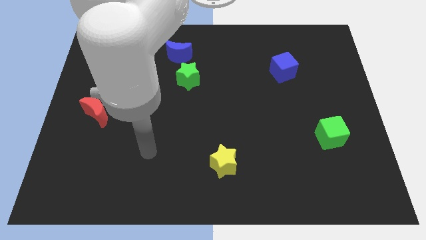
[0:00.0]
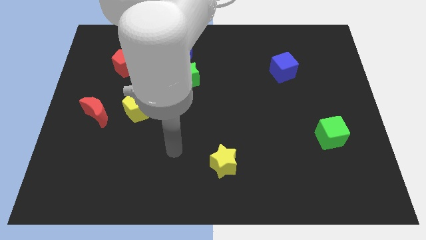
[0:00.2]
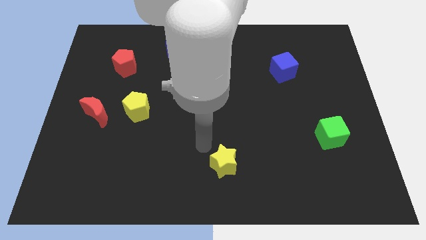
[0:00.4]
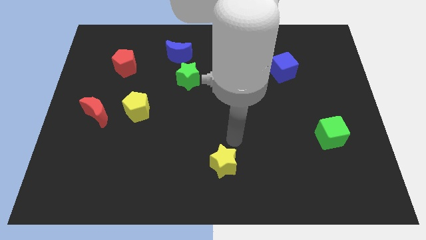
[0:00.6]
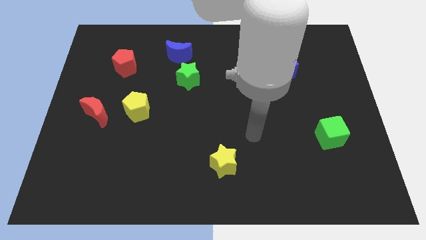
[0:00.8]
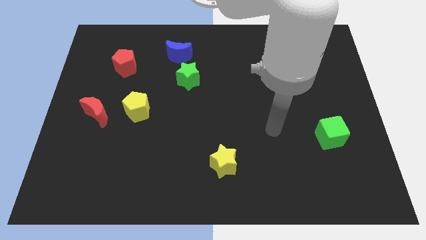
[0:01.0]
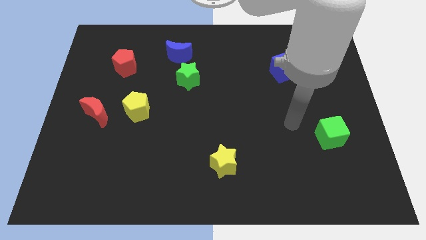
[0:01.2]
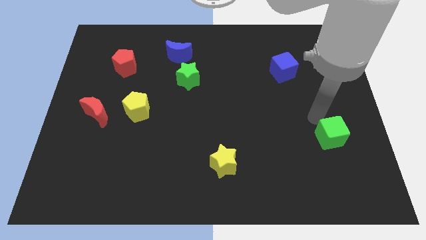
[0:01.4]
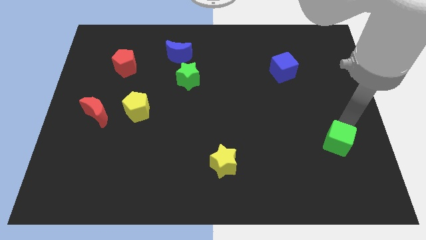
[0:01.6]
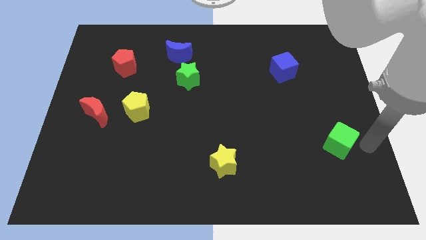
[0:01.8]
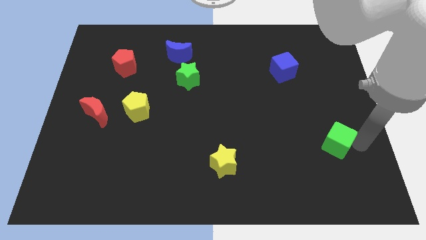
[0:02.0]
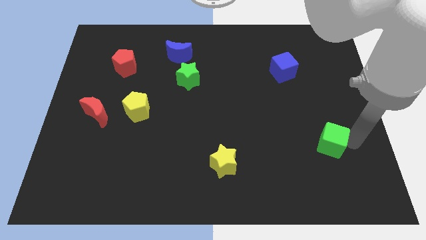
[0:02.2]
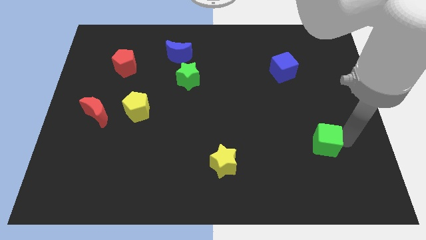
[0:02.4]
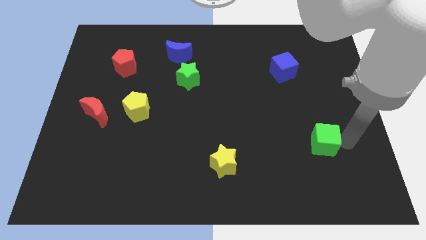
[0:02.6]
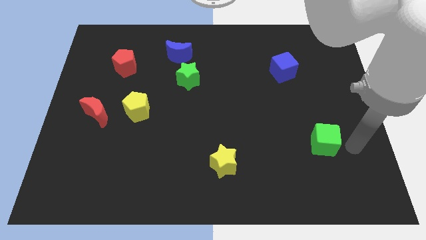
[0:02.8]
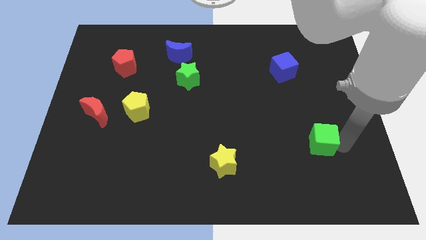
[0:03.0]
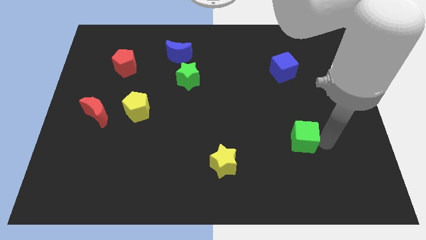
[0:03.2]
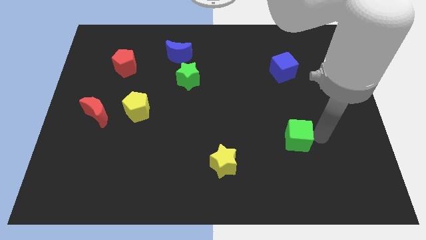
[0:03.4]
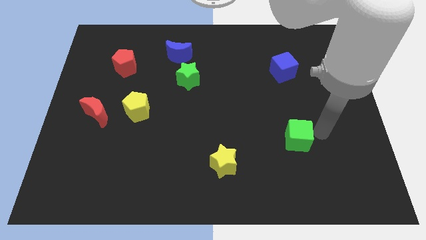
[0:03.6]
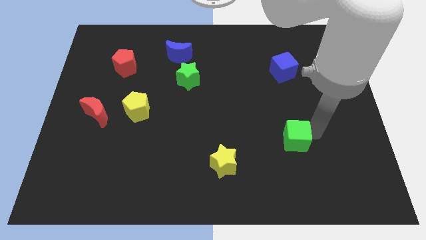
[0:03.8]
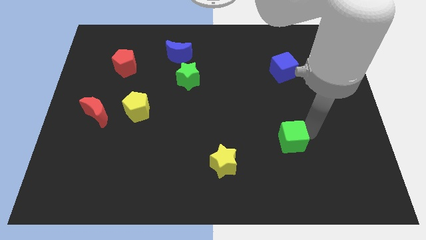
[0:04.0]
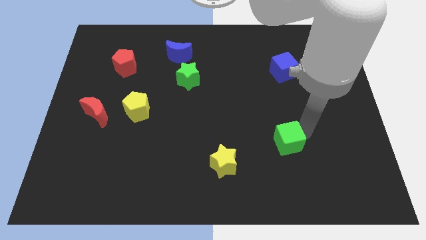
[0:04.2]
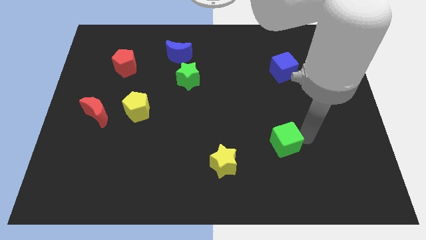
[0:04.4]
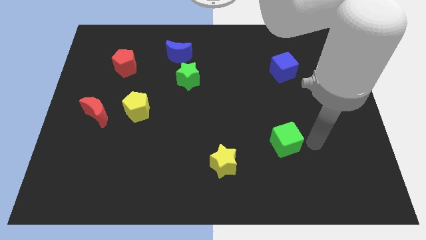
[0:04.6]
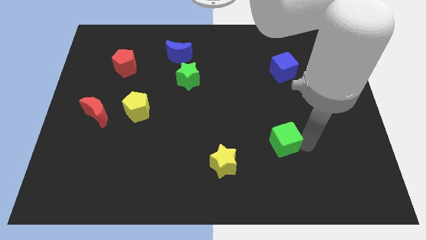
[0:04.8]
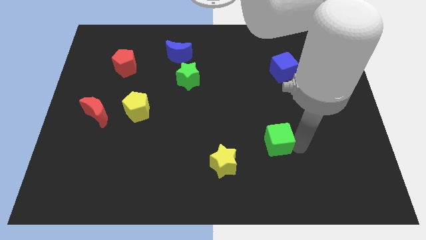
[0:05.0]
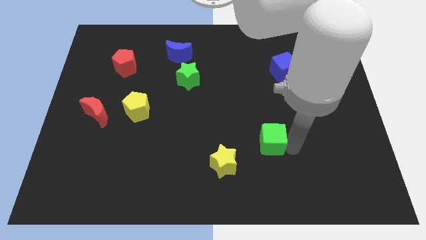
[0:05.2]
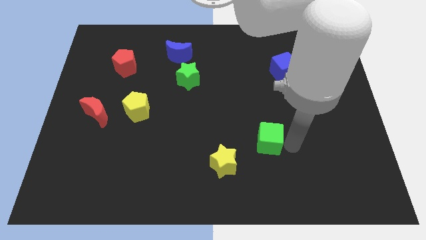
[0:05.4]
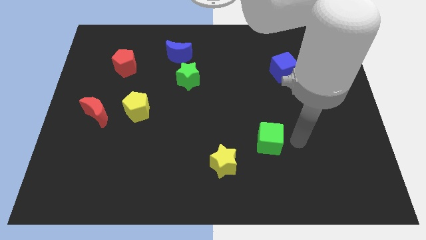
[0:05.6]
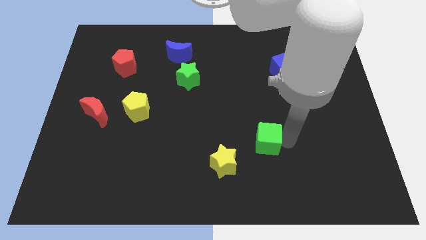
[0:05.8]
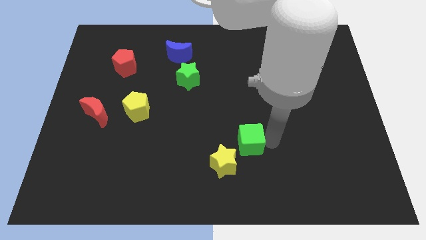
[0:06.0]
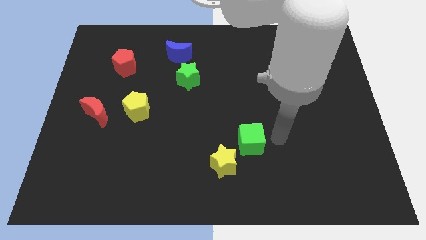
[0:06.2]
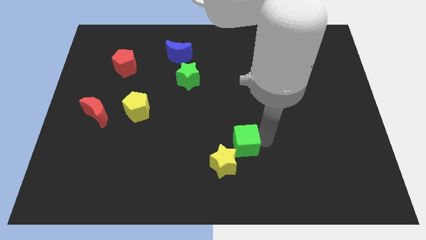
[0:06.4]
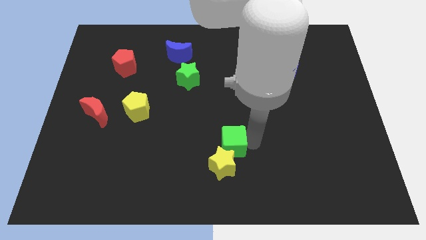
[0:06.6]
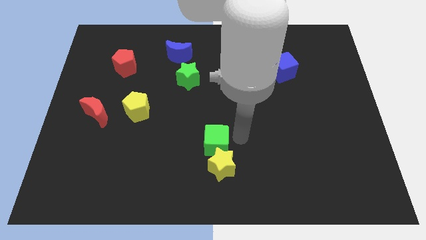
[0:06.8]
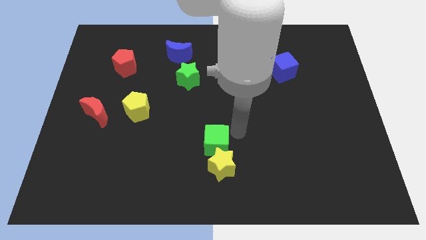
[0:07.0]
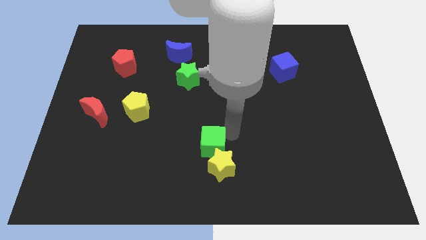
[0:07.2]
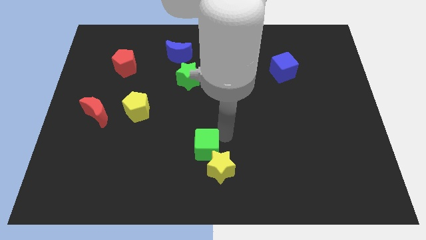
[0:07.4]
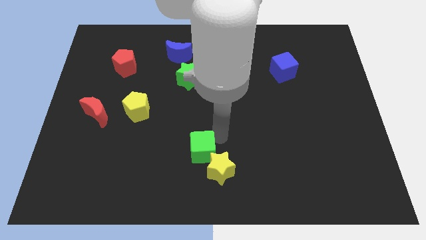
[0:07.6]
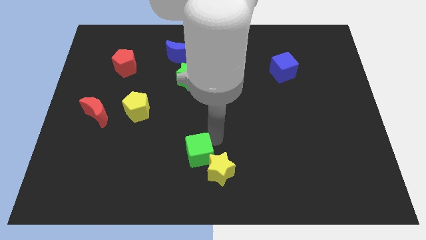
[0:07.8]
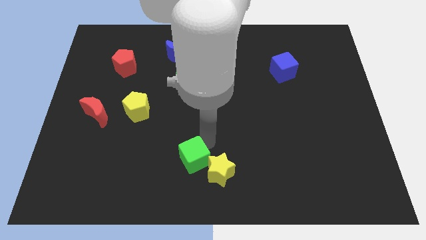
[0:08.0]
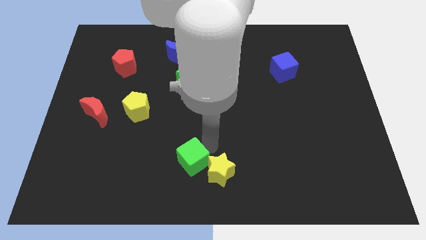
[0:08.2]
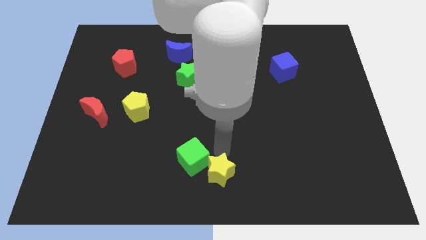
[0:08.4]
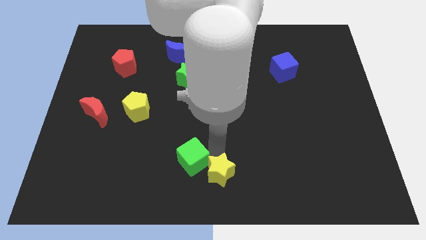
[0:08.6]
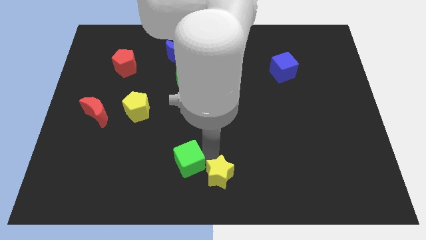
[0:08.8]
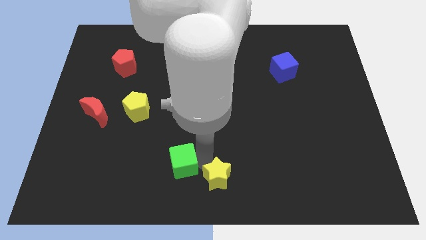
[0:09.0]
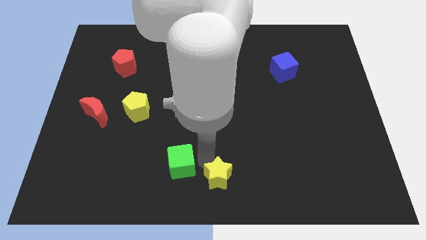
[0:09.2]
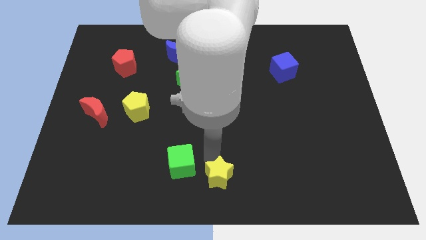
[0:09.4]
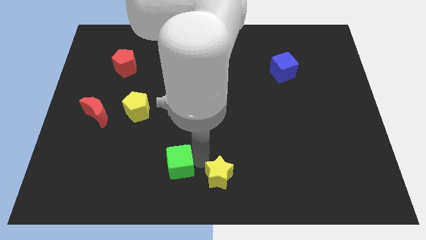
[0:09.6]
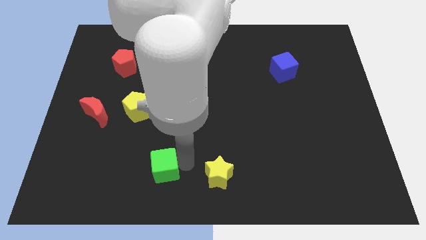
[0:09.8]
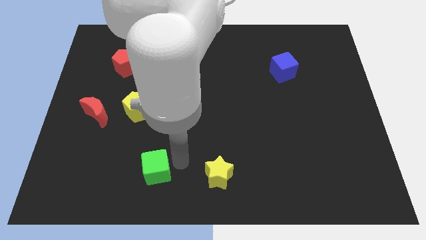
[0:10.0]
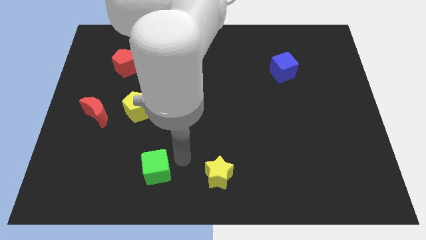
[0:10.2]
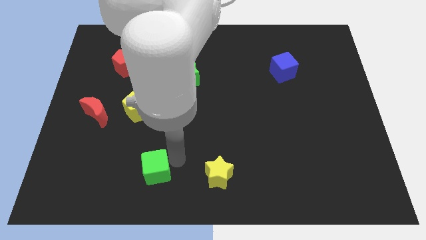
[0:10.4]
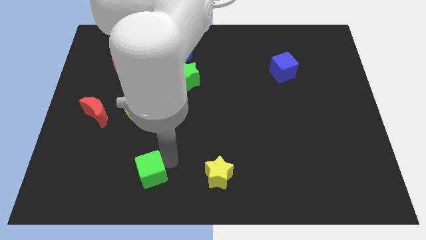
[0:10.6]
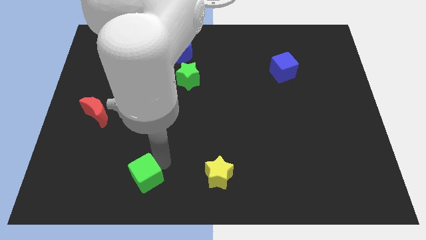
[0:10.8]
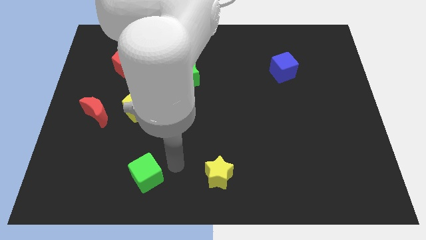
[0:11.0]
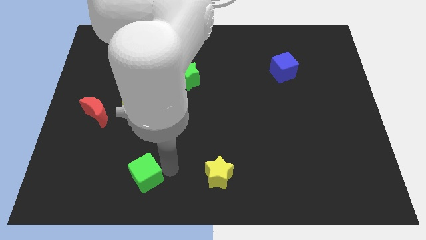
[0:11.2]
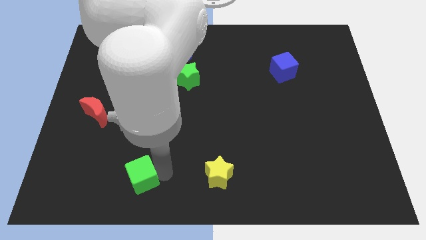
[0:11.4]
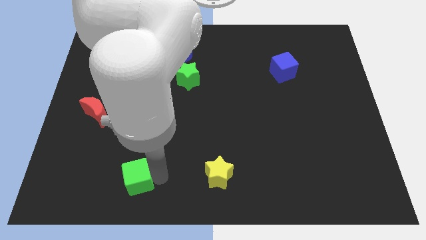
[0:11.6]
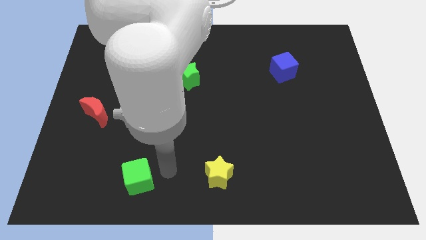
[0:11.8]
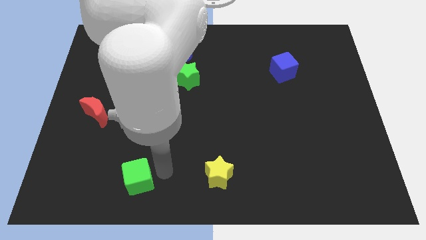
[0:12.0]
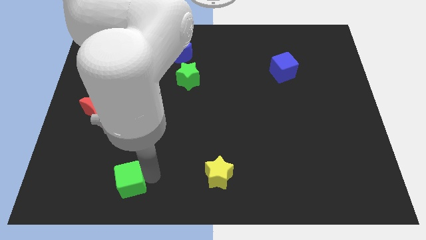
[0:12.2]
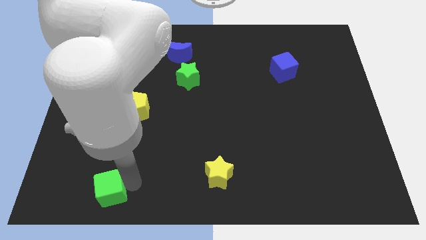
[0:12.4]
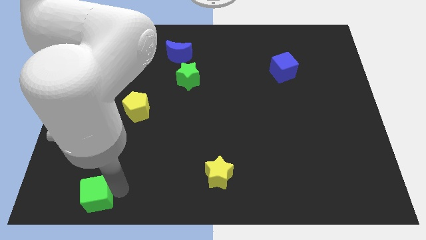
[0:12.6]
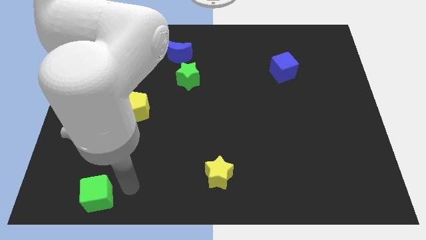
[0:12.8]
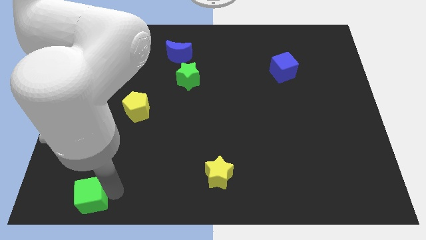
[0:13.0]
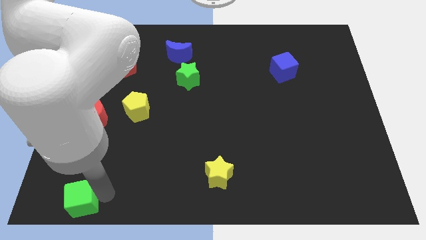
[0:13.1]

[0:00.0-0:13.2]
slide the green cube to the bottom left of the board

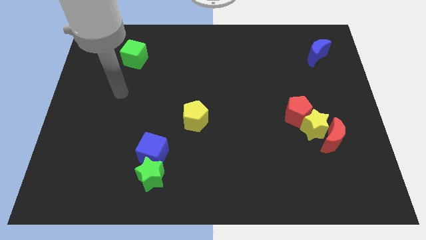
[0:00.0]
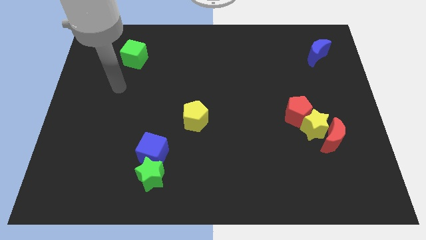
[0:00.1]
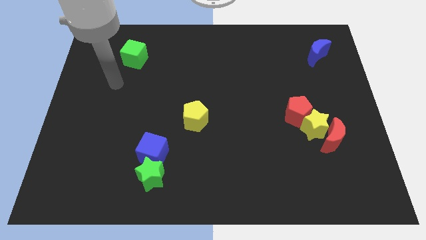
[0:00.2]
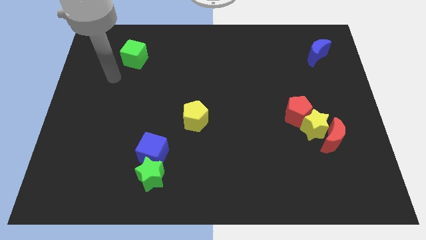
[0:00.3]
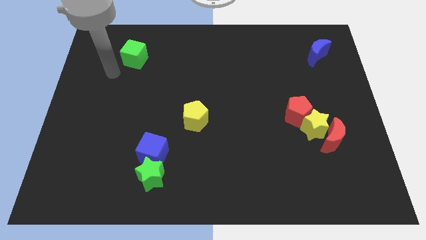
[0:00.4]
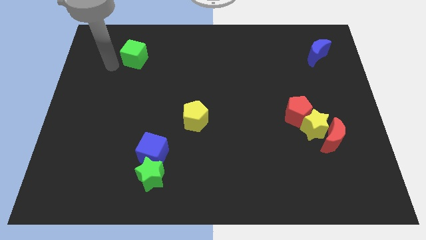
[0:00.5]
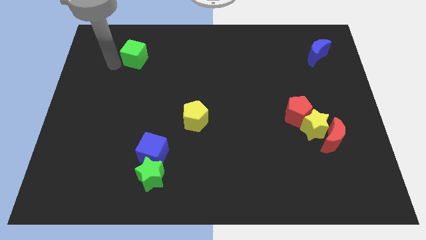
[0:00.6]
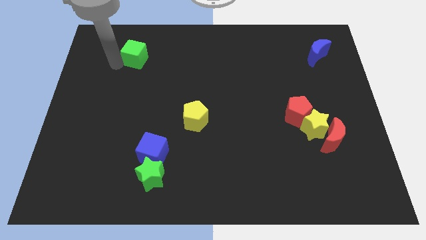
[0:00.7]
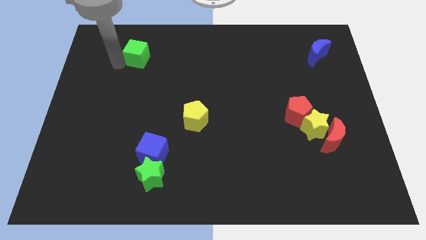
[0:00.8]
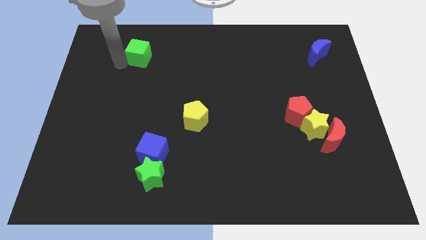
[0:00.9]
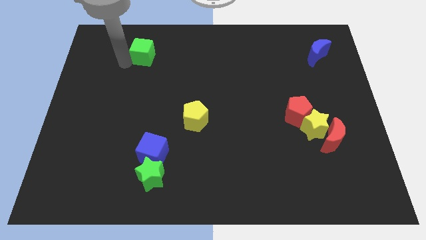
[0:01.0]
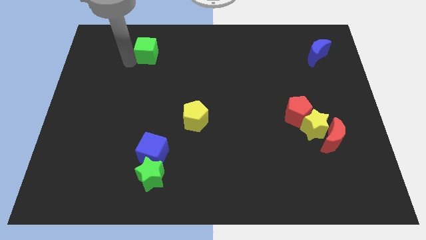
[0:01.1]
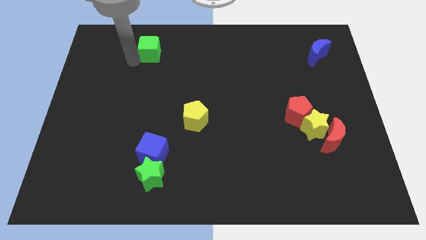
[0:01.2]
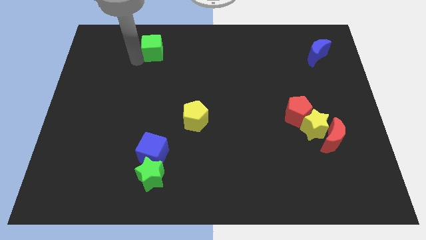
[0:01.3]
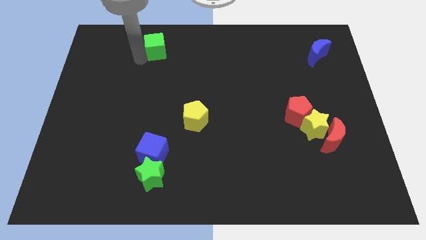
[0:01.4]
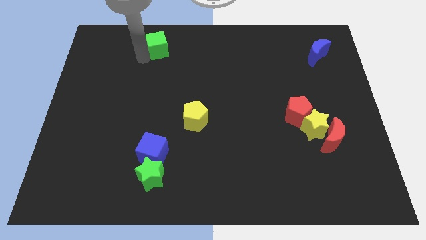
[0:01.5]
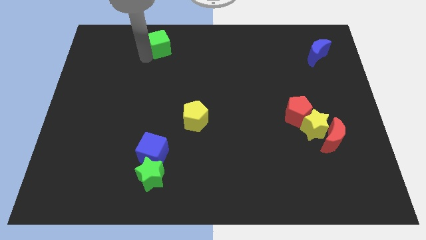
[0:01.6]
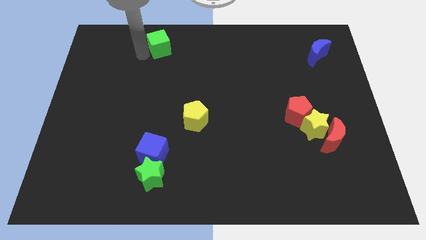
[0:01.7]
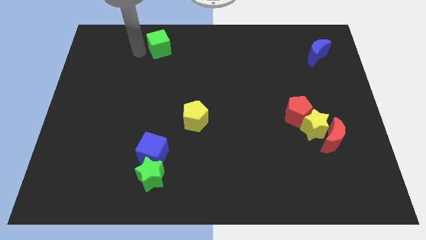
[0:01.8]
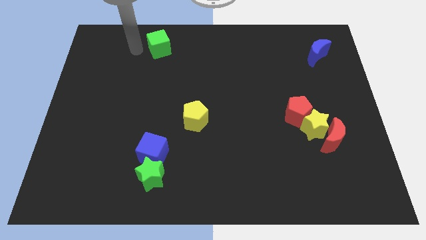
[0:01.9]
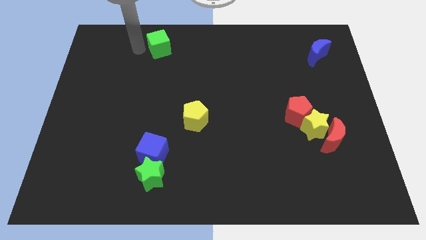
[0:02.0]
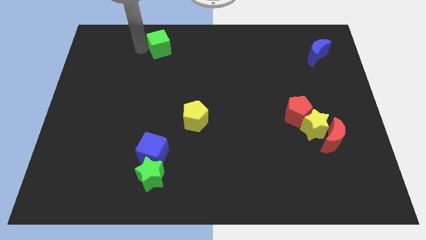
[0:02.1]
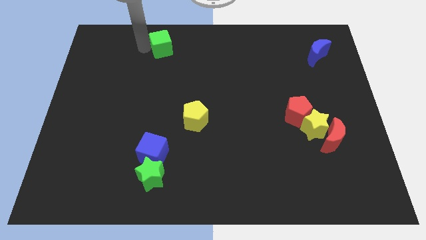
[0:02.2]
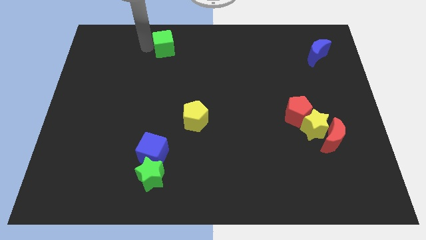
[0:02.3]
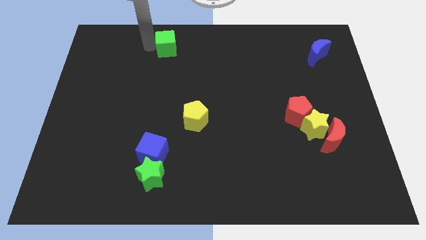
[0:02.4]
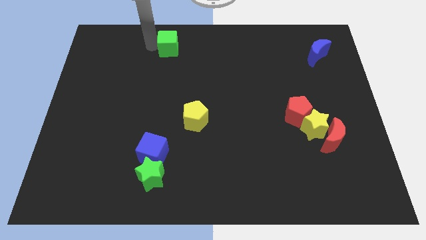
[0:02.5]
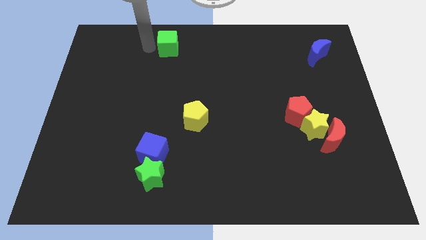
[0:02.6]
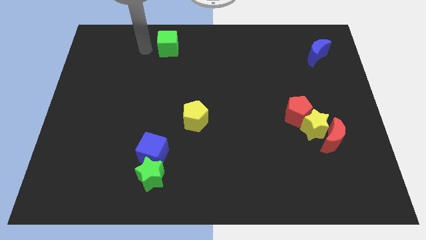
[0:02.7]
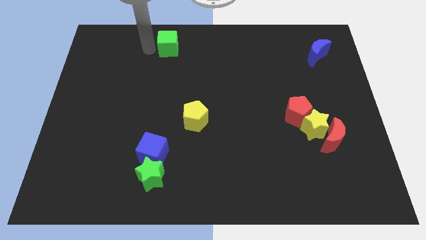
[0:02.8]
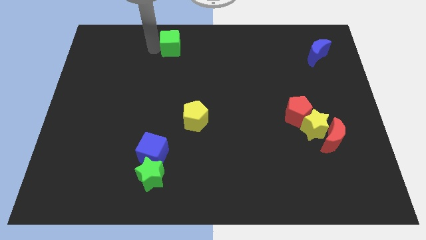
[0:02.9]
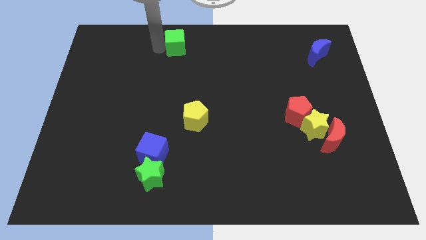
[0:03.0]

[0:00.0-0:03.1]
put the green cube to the top
